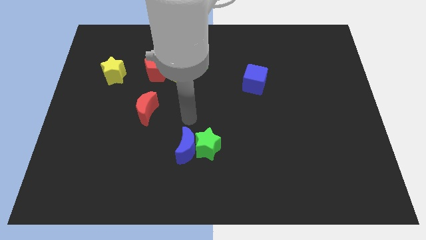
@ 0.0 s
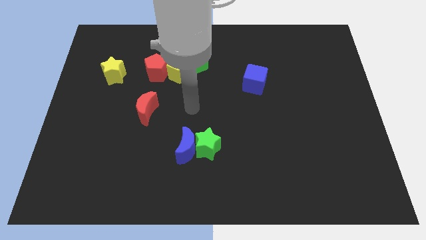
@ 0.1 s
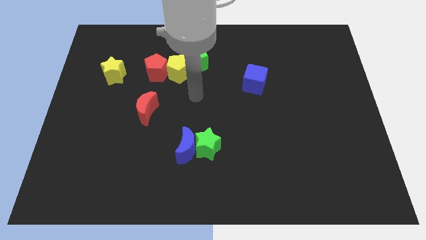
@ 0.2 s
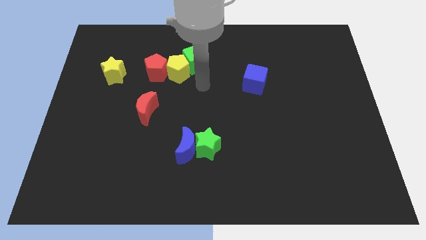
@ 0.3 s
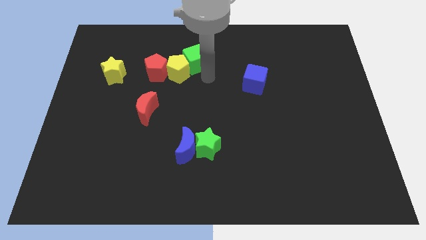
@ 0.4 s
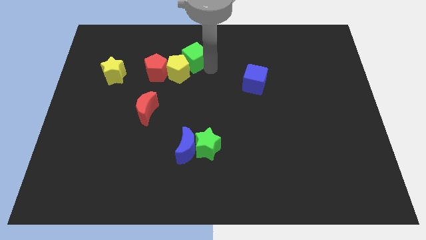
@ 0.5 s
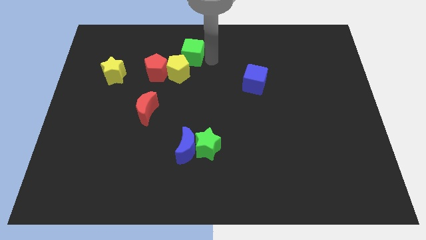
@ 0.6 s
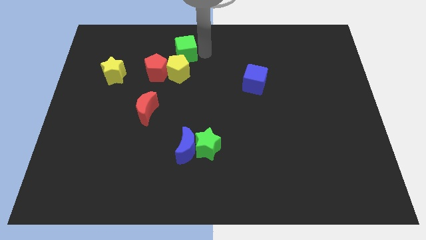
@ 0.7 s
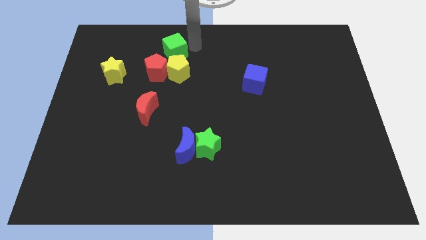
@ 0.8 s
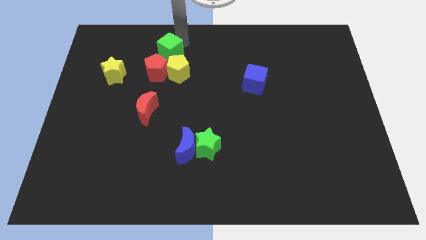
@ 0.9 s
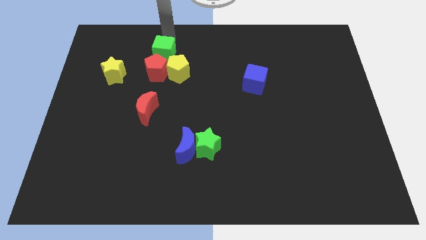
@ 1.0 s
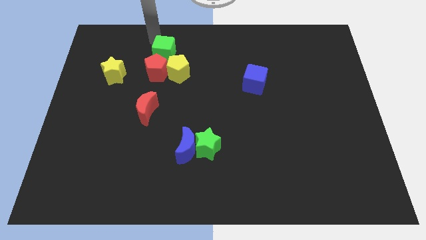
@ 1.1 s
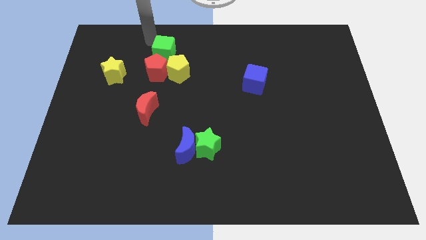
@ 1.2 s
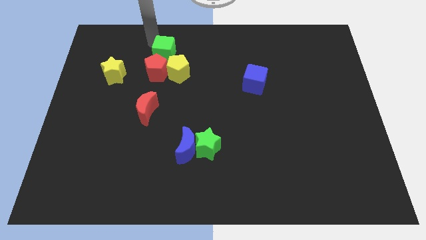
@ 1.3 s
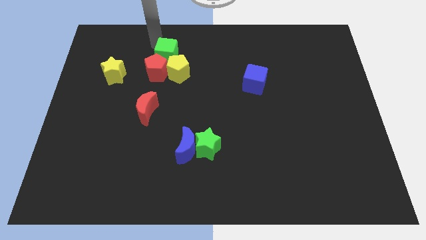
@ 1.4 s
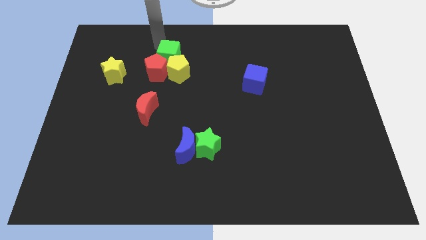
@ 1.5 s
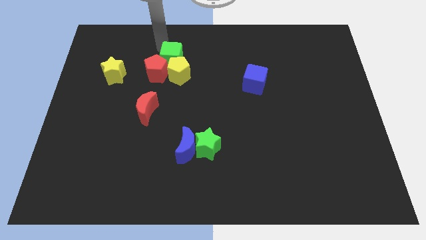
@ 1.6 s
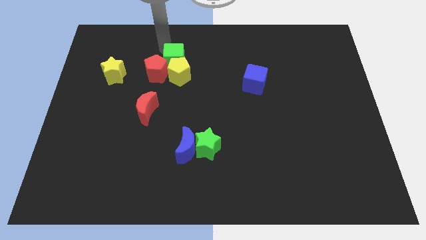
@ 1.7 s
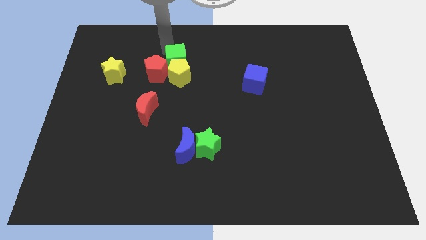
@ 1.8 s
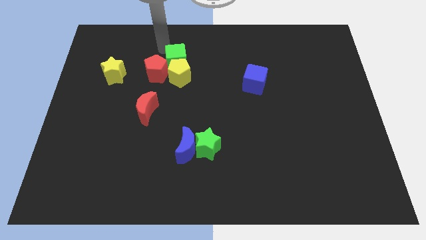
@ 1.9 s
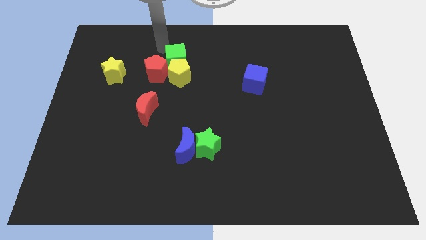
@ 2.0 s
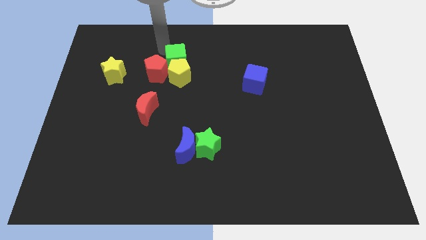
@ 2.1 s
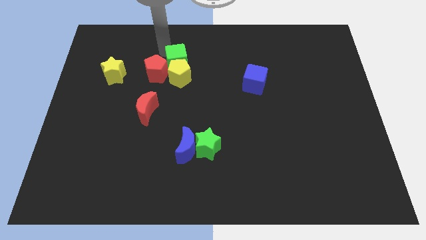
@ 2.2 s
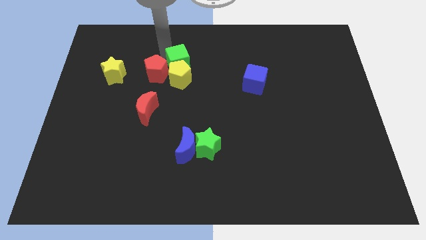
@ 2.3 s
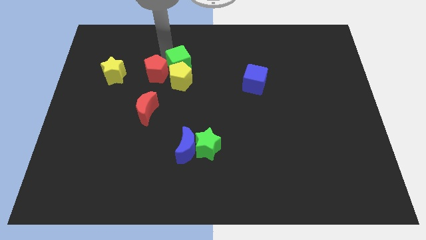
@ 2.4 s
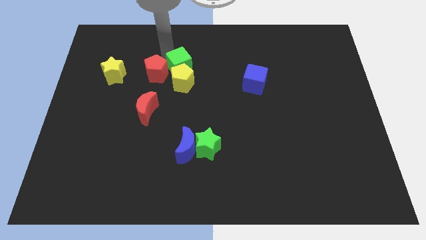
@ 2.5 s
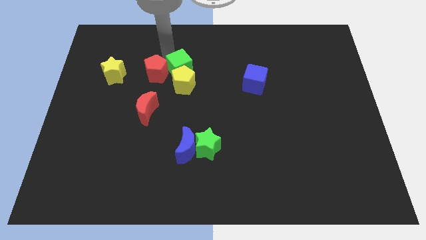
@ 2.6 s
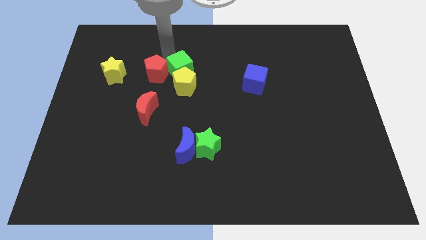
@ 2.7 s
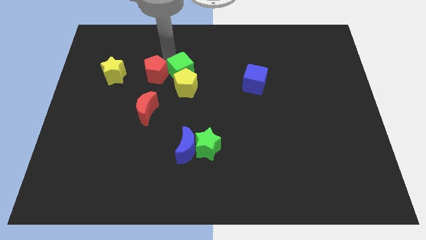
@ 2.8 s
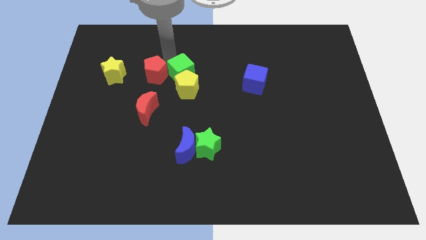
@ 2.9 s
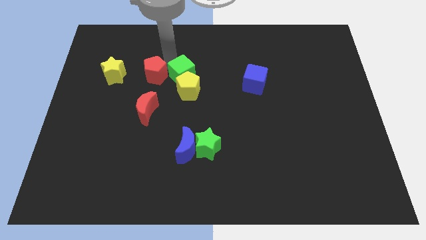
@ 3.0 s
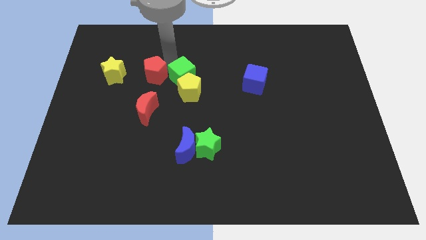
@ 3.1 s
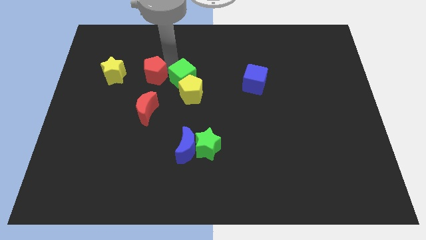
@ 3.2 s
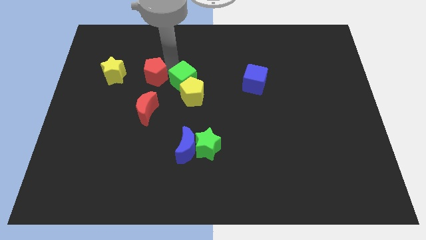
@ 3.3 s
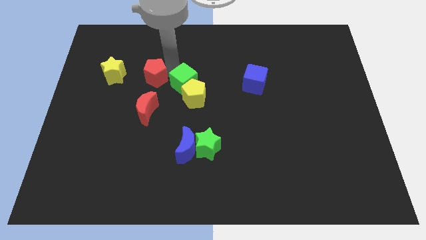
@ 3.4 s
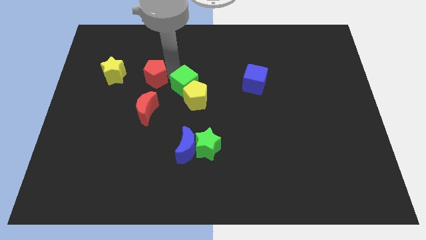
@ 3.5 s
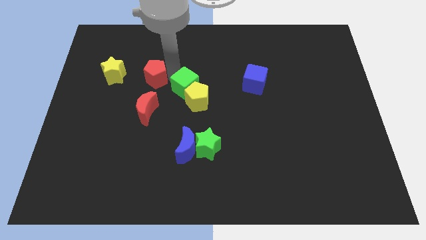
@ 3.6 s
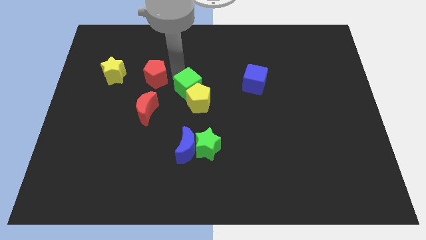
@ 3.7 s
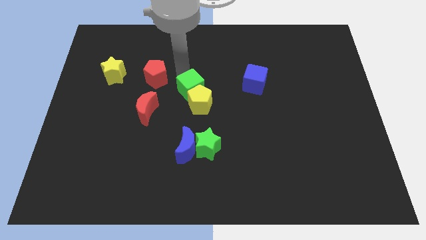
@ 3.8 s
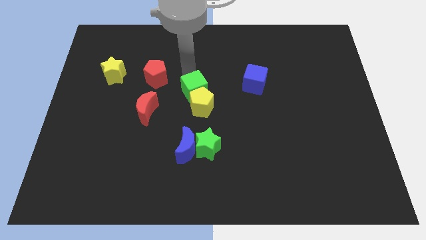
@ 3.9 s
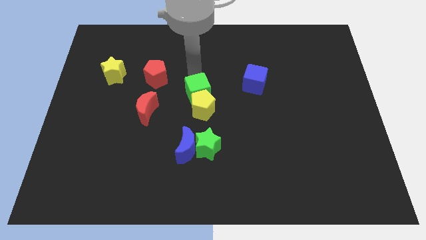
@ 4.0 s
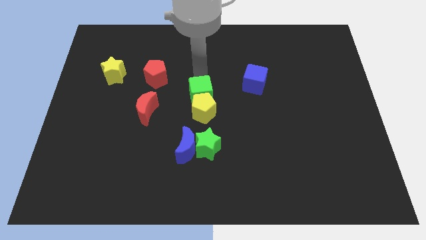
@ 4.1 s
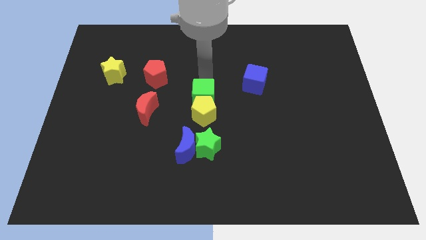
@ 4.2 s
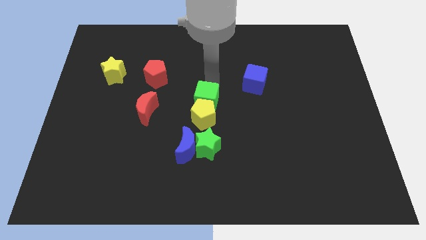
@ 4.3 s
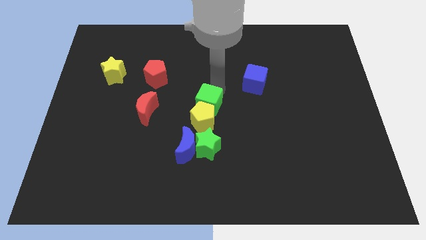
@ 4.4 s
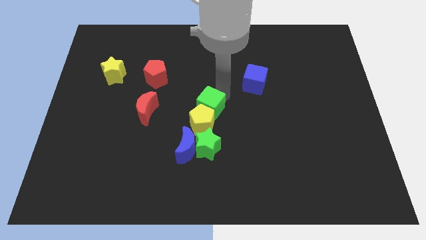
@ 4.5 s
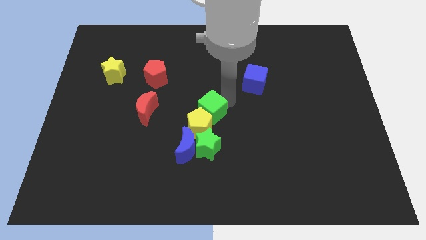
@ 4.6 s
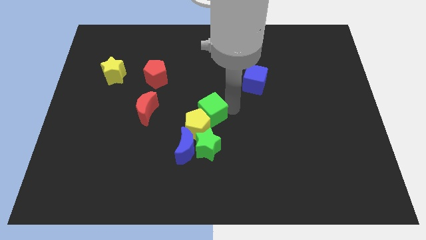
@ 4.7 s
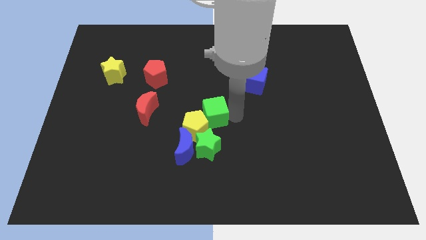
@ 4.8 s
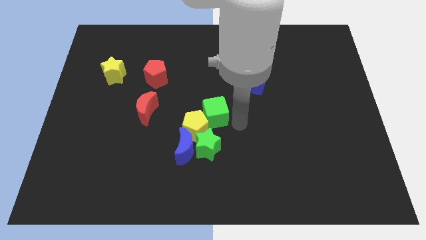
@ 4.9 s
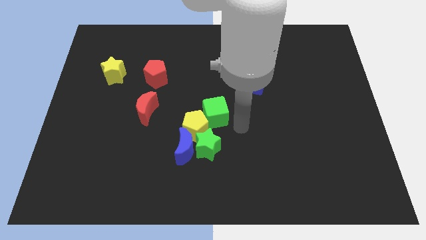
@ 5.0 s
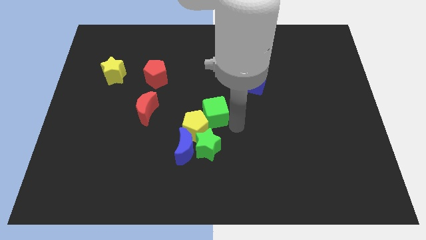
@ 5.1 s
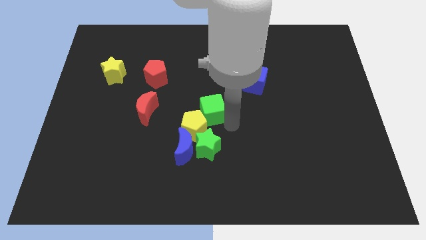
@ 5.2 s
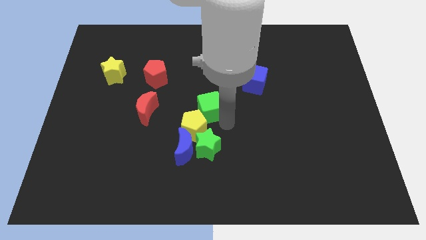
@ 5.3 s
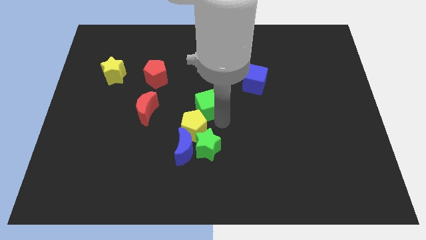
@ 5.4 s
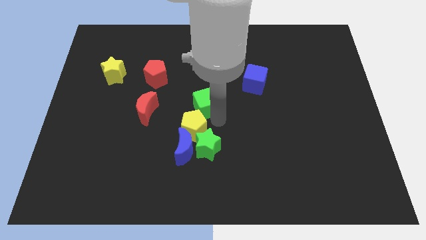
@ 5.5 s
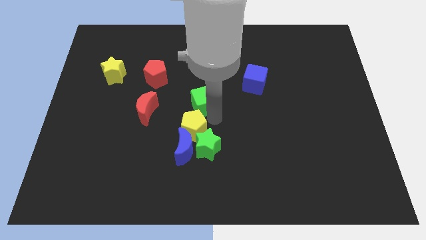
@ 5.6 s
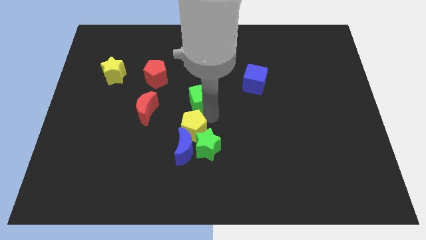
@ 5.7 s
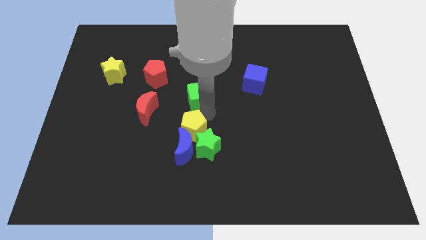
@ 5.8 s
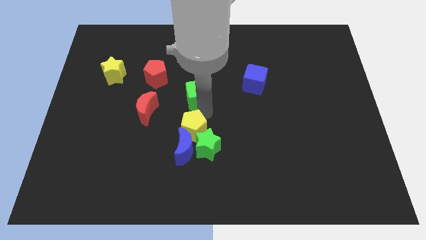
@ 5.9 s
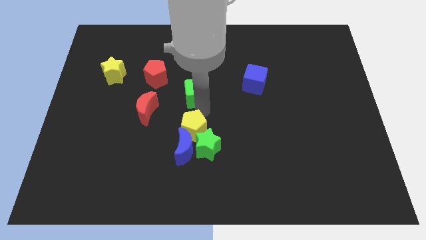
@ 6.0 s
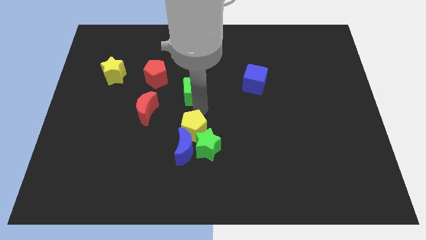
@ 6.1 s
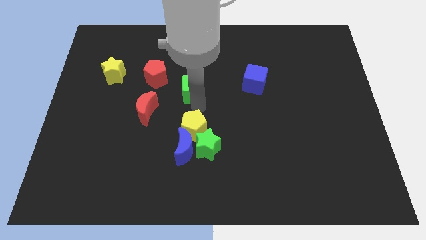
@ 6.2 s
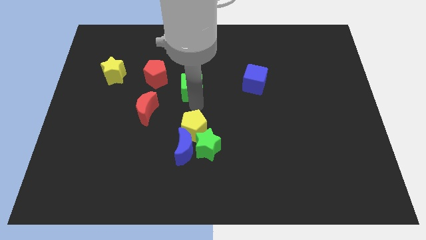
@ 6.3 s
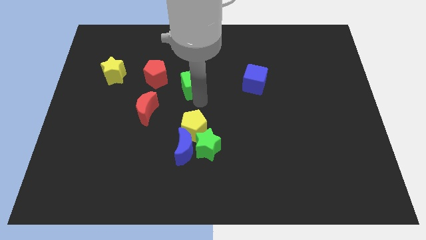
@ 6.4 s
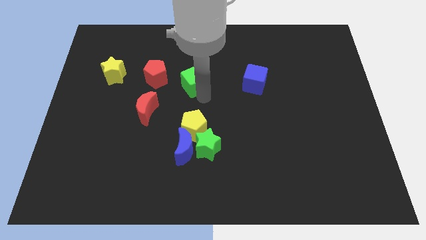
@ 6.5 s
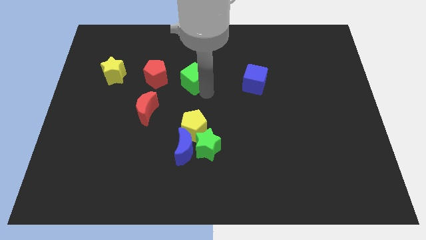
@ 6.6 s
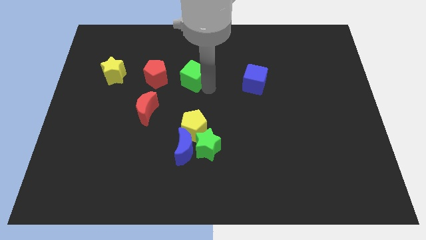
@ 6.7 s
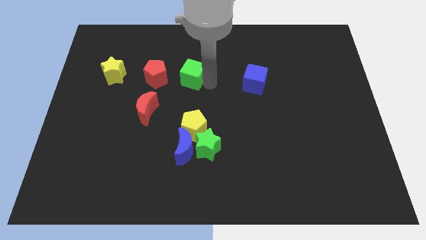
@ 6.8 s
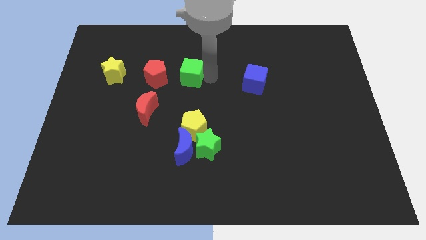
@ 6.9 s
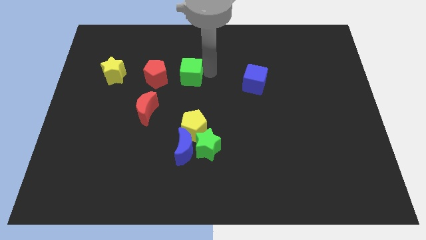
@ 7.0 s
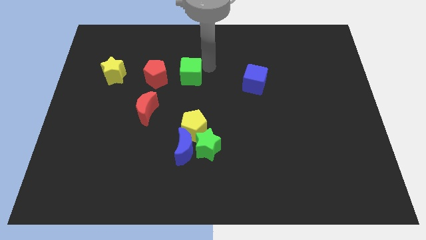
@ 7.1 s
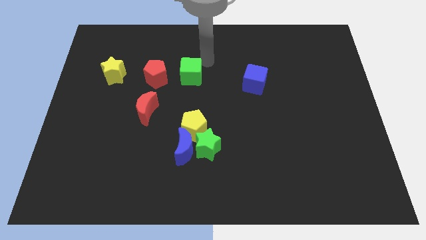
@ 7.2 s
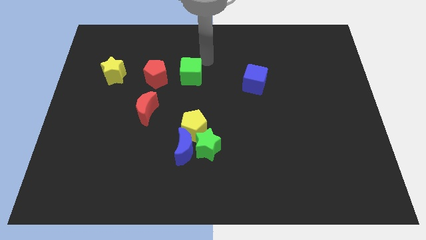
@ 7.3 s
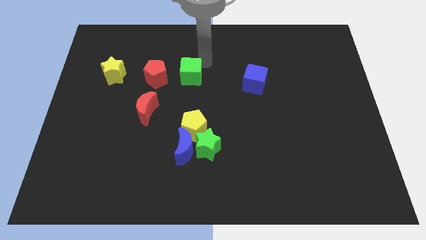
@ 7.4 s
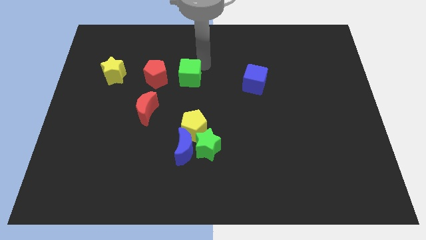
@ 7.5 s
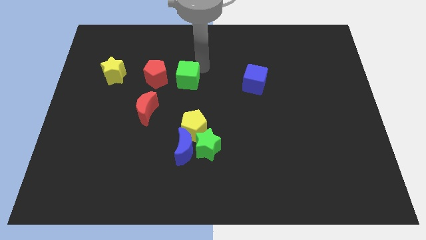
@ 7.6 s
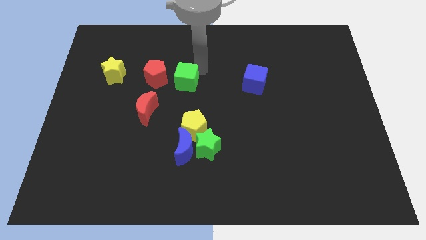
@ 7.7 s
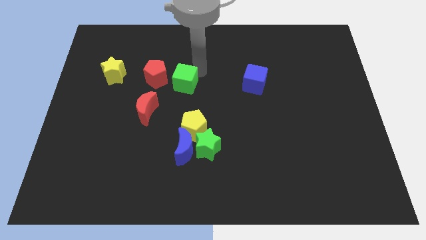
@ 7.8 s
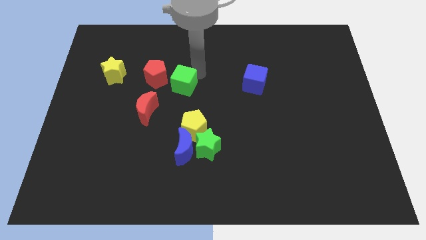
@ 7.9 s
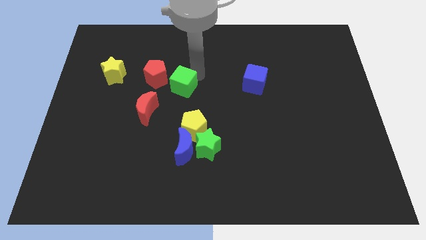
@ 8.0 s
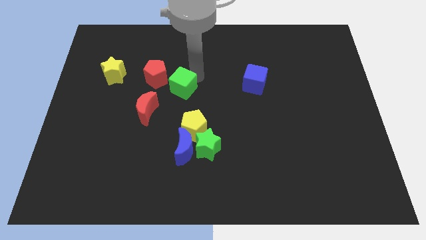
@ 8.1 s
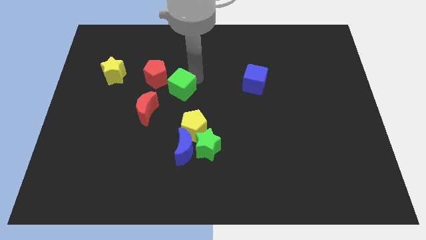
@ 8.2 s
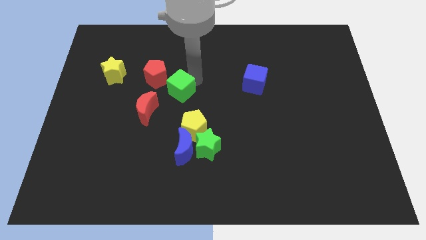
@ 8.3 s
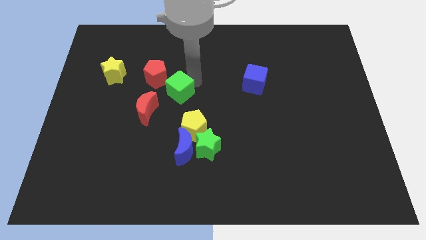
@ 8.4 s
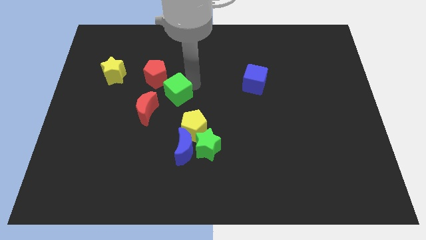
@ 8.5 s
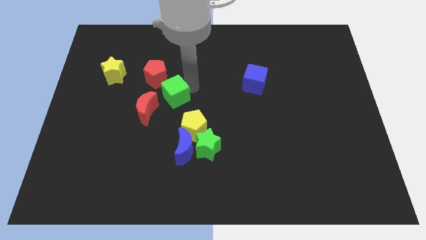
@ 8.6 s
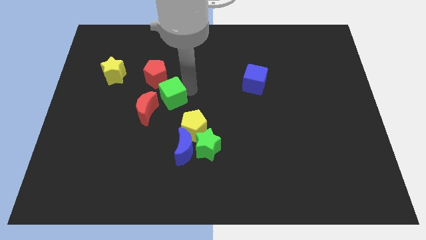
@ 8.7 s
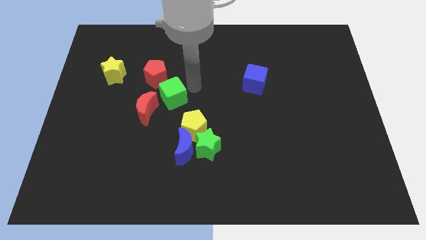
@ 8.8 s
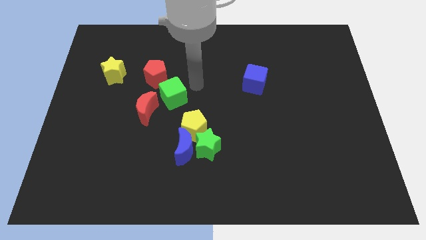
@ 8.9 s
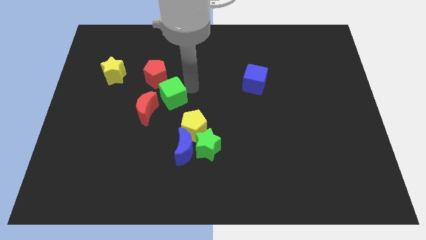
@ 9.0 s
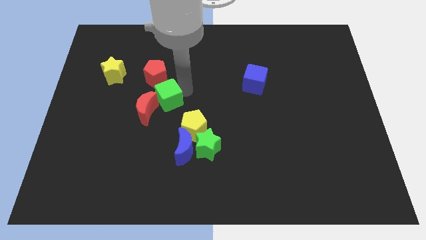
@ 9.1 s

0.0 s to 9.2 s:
slide the green cube close to the red moon
